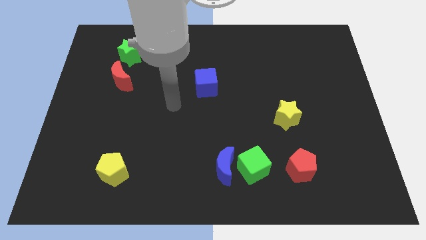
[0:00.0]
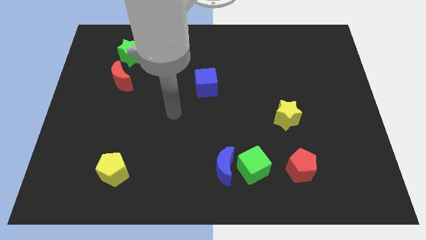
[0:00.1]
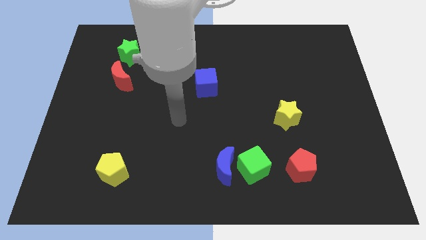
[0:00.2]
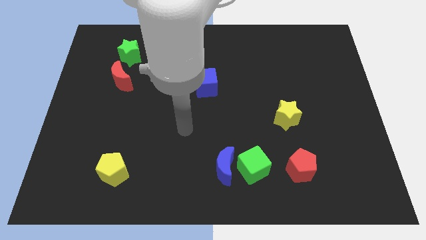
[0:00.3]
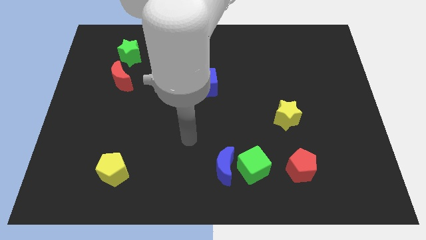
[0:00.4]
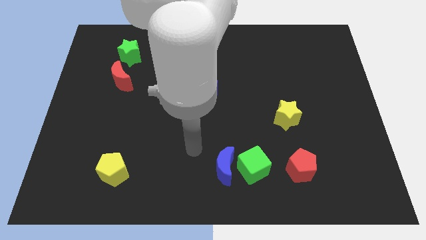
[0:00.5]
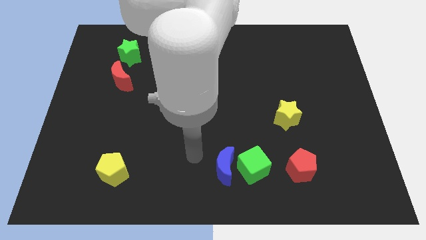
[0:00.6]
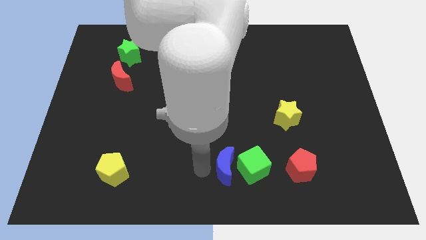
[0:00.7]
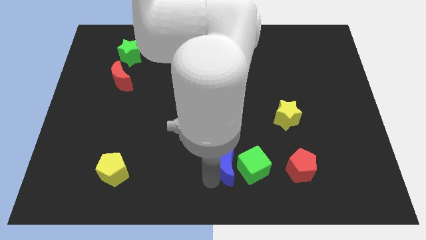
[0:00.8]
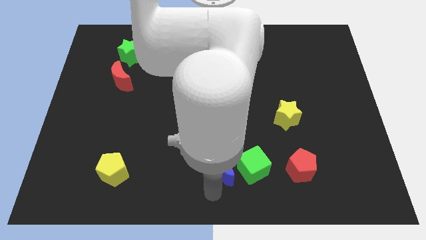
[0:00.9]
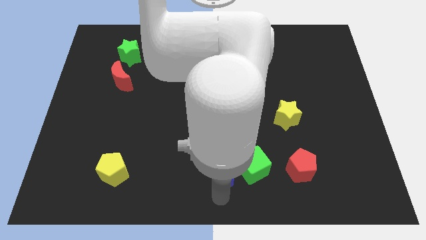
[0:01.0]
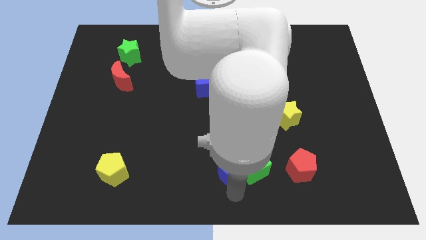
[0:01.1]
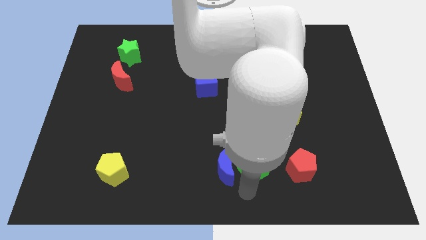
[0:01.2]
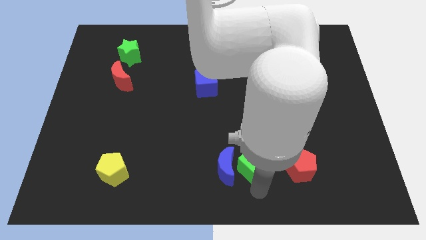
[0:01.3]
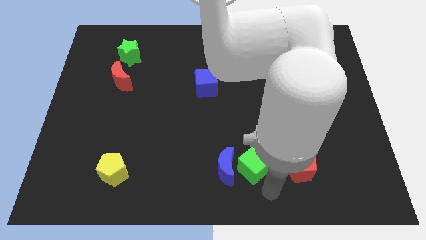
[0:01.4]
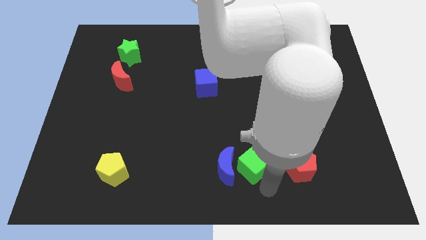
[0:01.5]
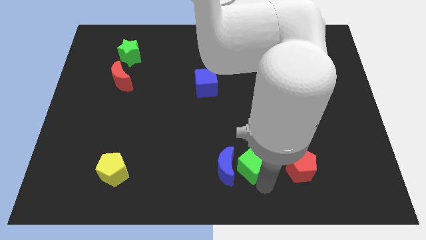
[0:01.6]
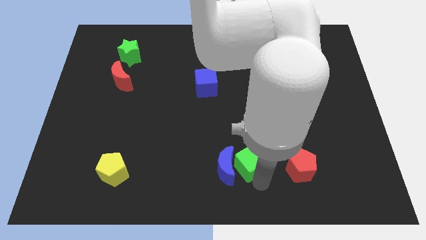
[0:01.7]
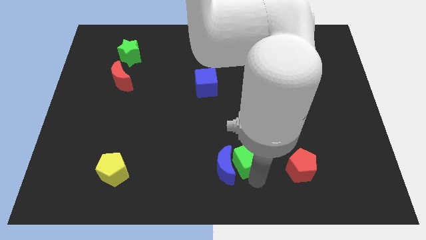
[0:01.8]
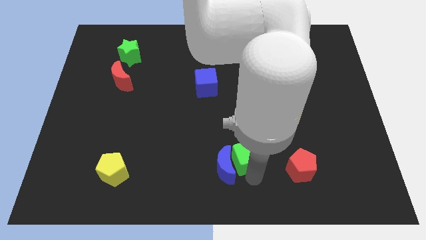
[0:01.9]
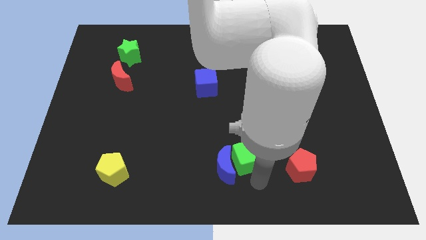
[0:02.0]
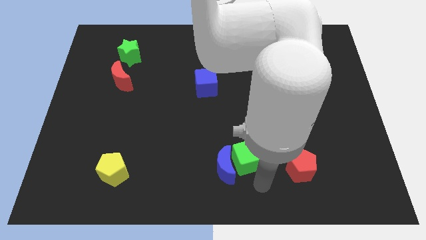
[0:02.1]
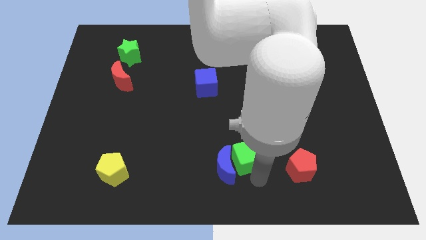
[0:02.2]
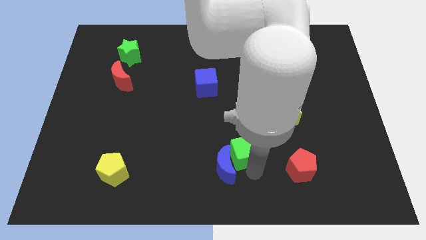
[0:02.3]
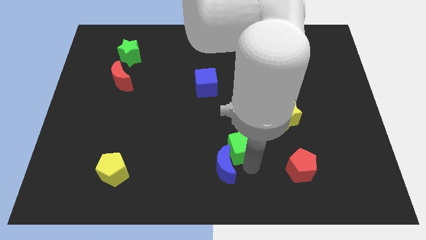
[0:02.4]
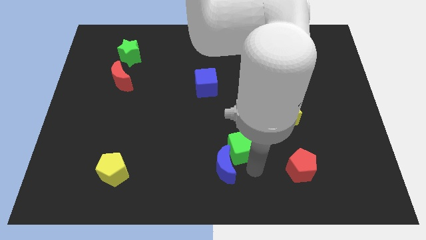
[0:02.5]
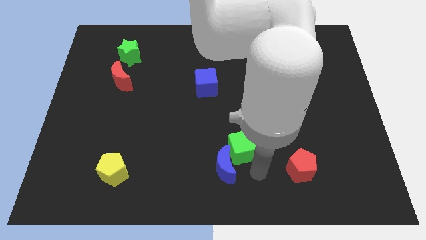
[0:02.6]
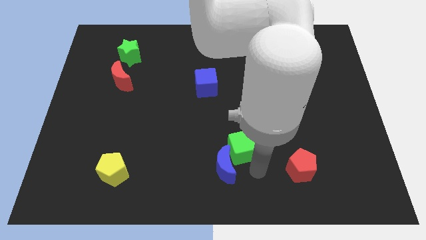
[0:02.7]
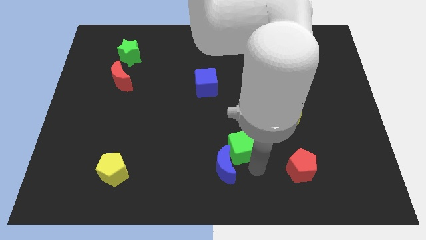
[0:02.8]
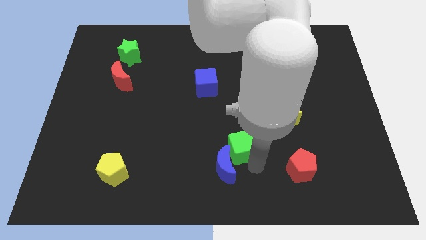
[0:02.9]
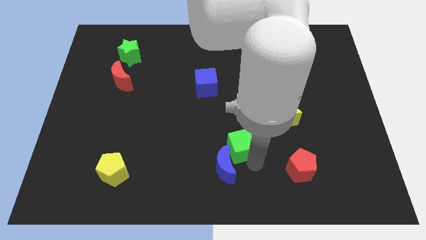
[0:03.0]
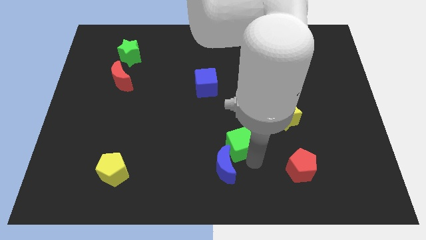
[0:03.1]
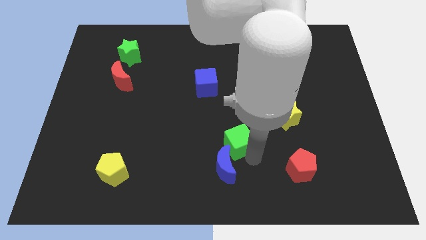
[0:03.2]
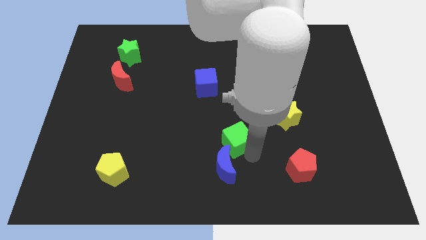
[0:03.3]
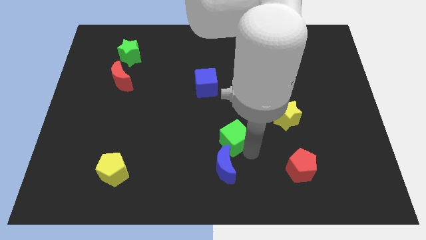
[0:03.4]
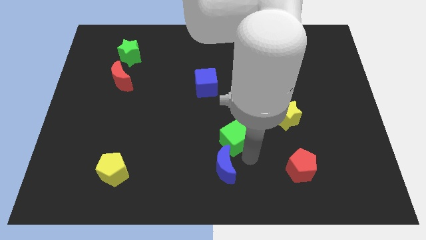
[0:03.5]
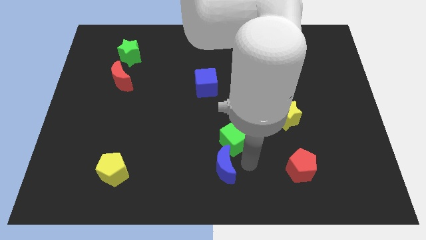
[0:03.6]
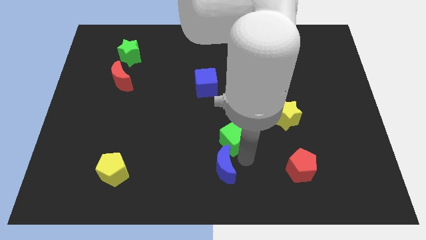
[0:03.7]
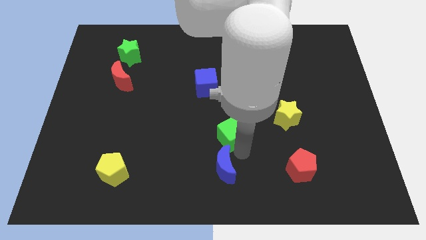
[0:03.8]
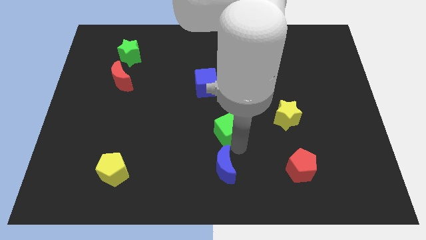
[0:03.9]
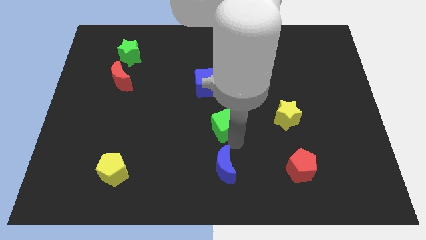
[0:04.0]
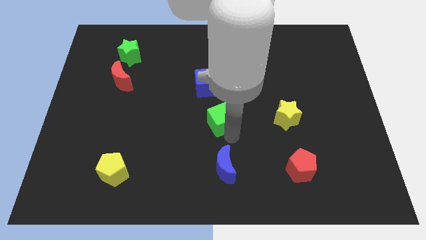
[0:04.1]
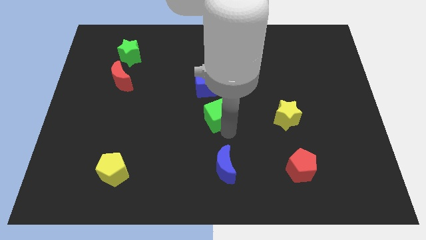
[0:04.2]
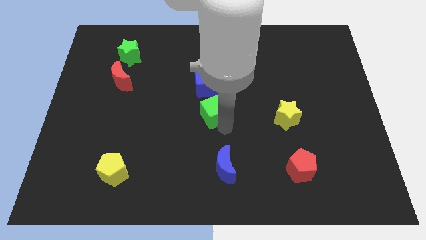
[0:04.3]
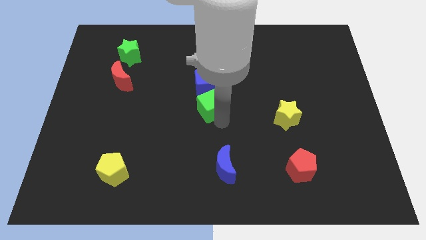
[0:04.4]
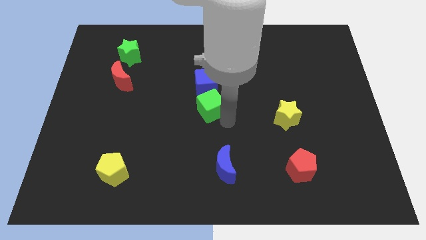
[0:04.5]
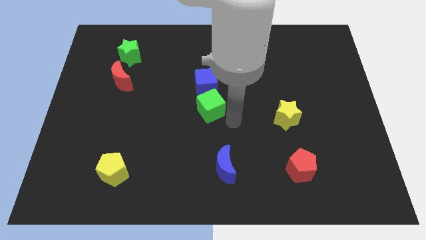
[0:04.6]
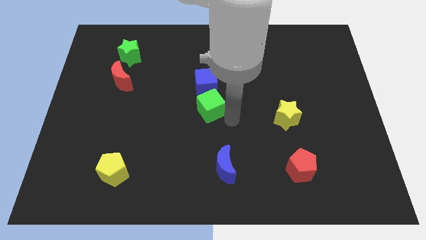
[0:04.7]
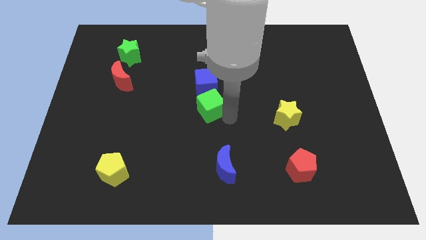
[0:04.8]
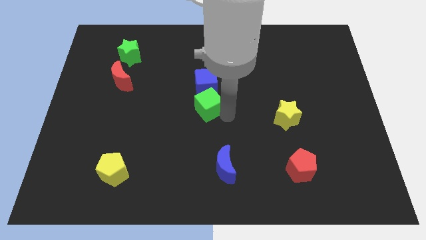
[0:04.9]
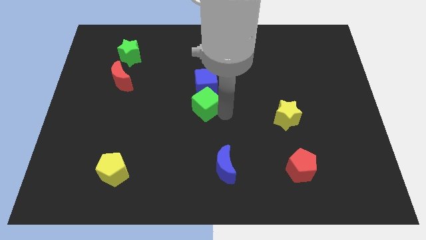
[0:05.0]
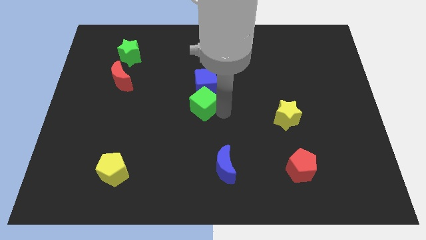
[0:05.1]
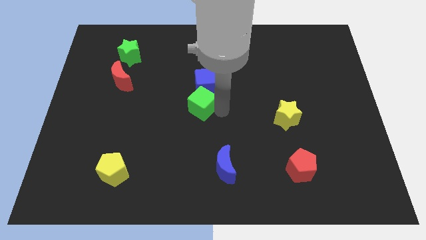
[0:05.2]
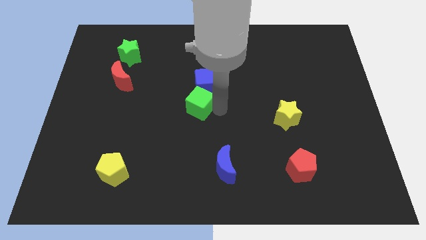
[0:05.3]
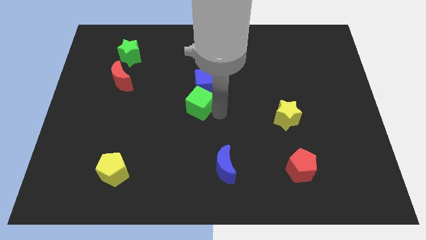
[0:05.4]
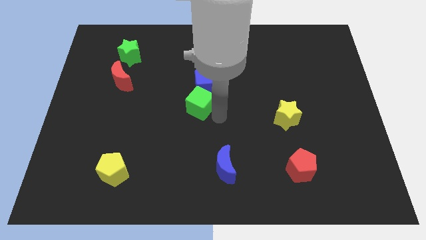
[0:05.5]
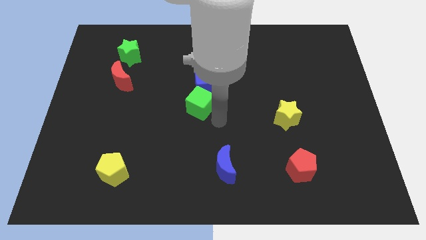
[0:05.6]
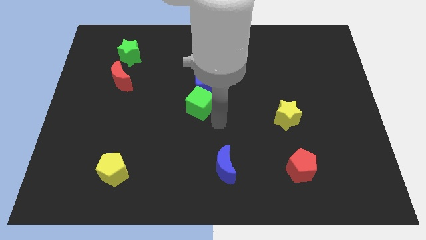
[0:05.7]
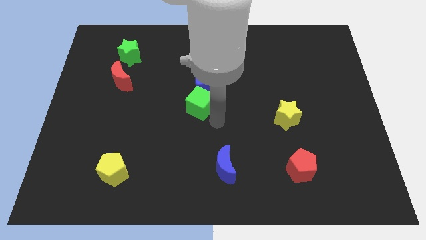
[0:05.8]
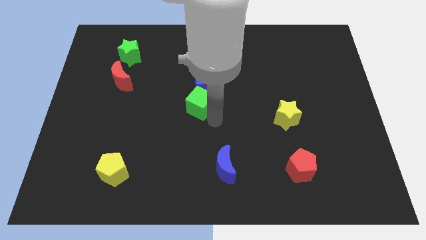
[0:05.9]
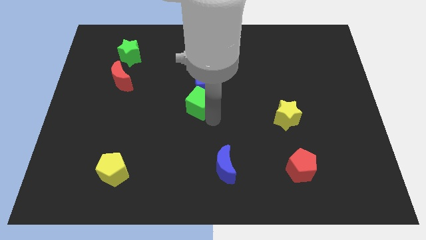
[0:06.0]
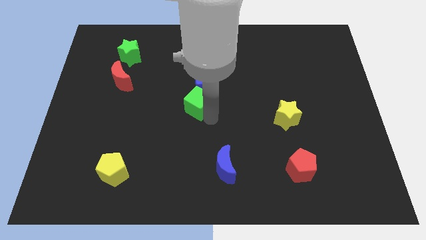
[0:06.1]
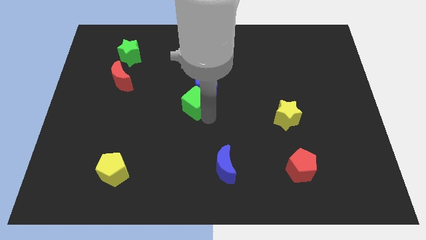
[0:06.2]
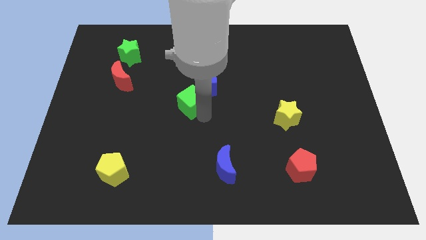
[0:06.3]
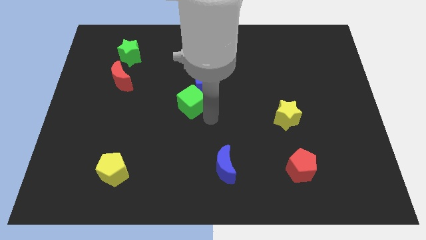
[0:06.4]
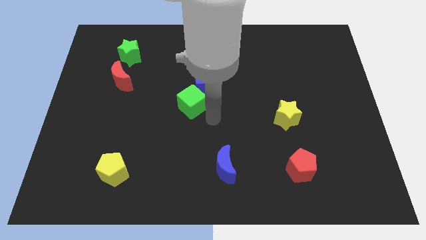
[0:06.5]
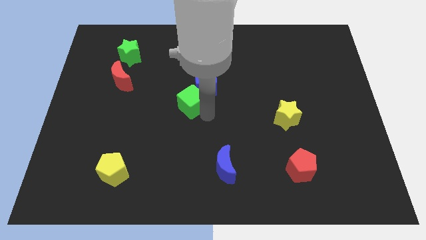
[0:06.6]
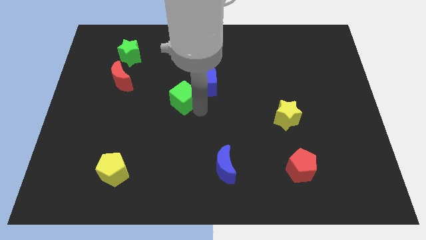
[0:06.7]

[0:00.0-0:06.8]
push the green cube to the left side of the blue cube

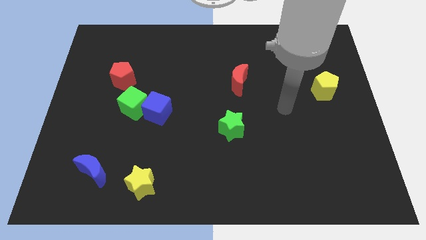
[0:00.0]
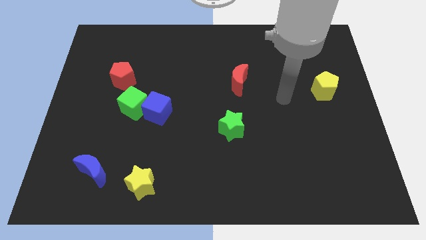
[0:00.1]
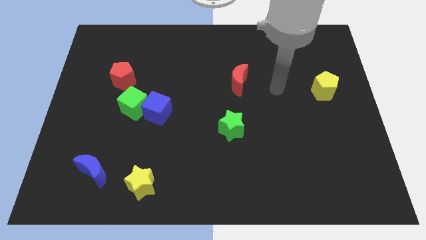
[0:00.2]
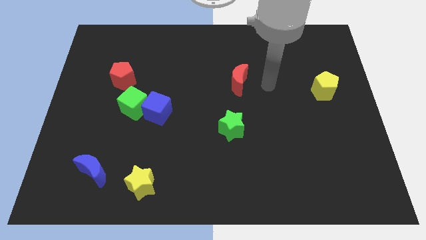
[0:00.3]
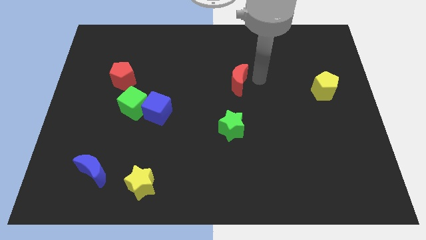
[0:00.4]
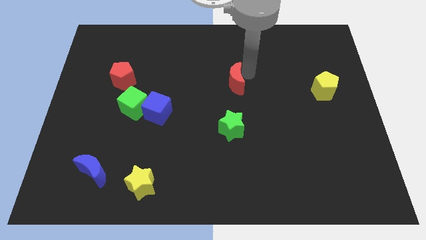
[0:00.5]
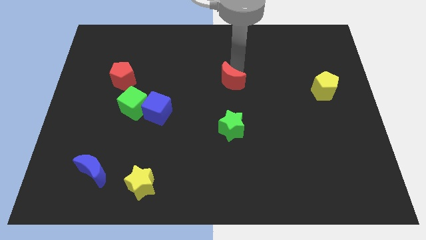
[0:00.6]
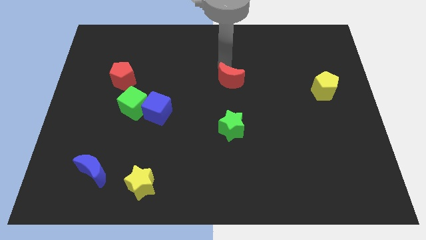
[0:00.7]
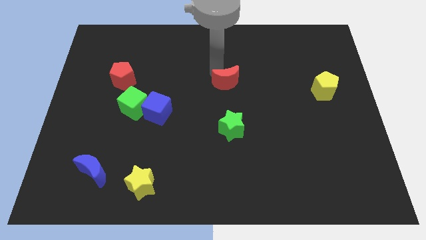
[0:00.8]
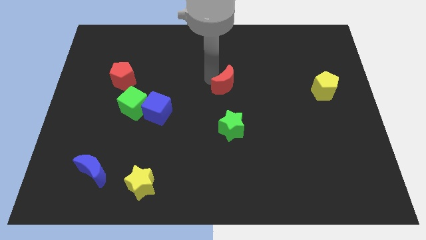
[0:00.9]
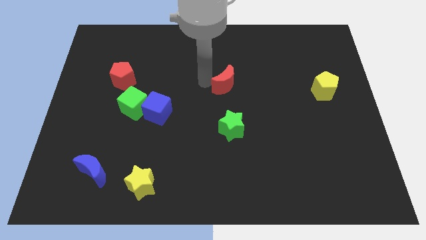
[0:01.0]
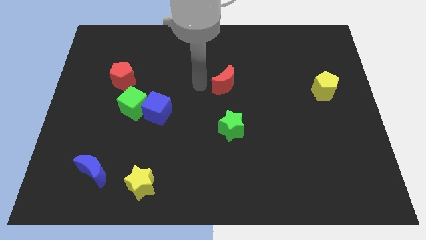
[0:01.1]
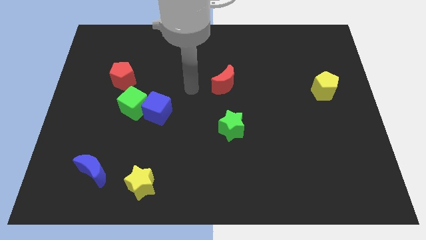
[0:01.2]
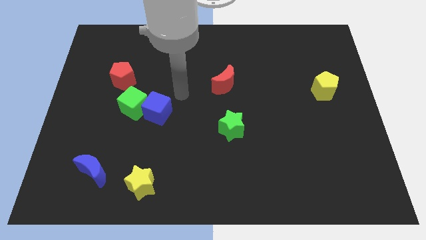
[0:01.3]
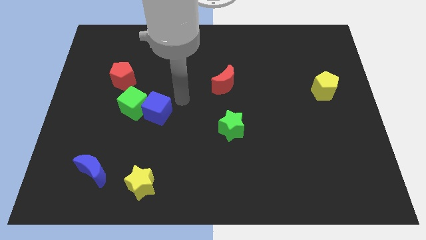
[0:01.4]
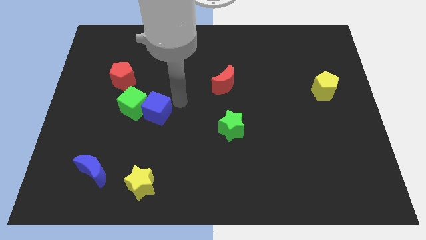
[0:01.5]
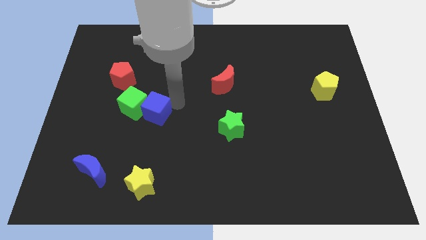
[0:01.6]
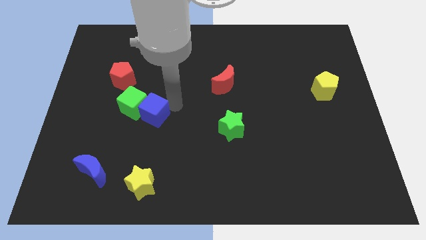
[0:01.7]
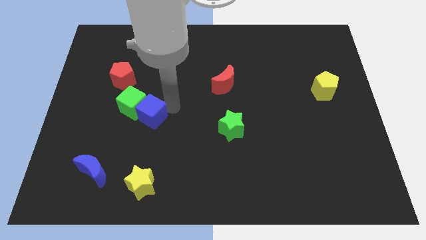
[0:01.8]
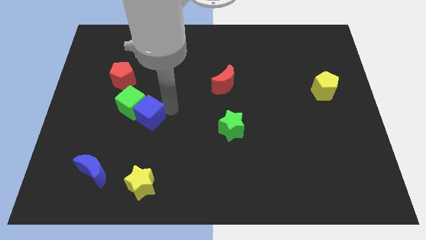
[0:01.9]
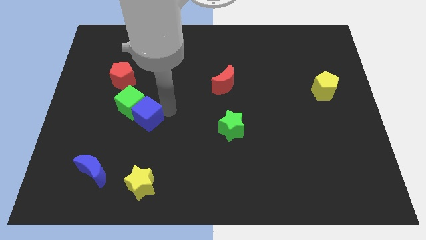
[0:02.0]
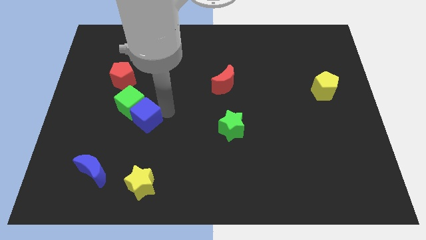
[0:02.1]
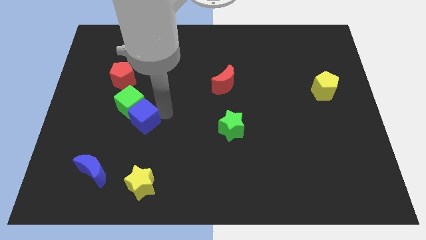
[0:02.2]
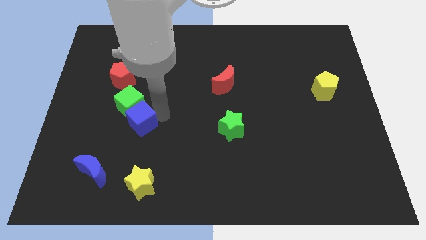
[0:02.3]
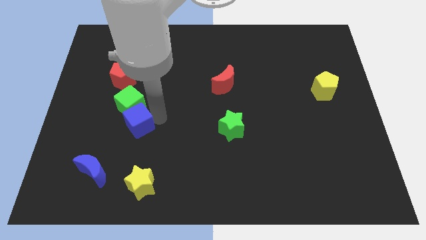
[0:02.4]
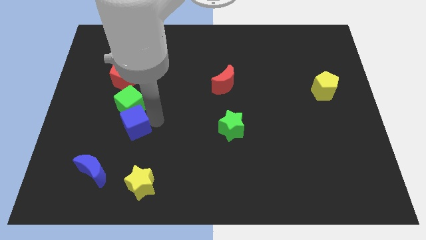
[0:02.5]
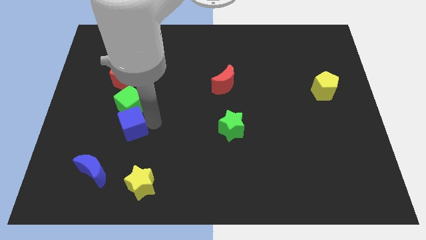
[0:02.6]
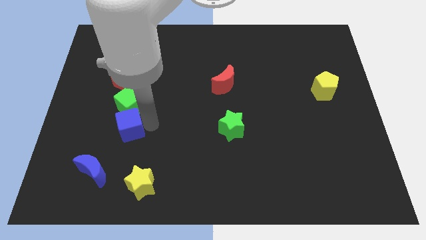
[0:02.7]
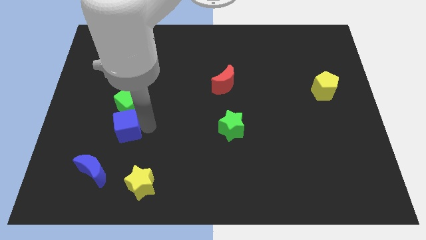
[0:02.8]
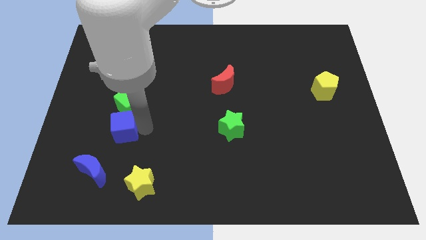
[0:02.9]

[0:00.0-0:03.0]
put the blue cube to the top of the blue moon
